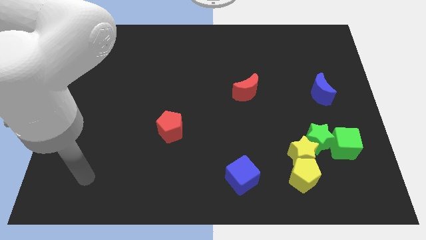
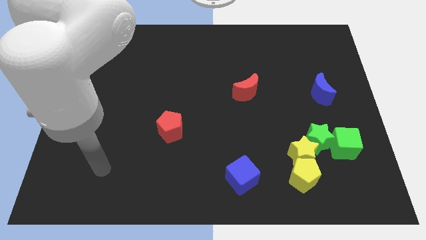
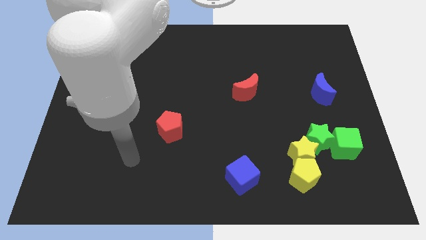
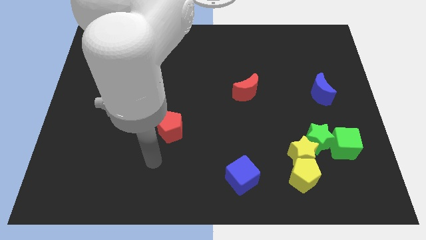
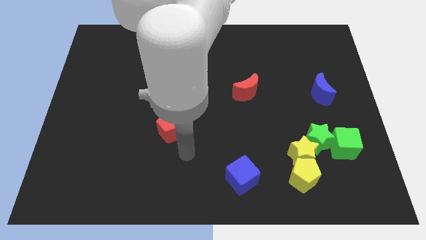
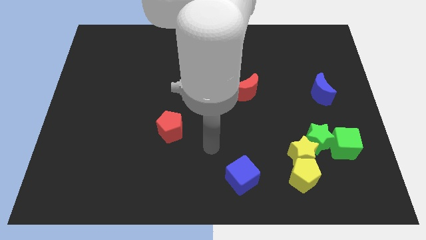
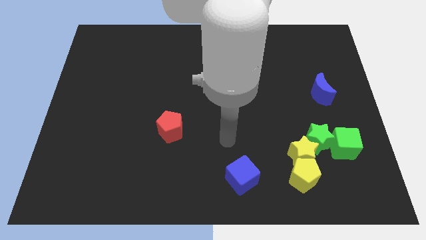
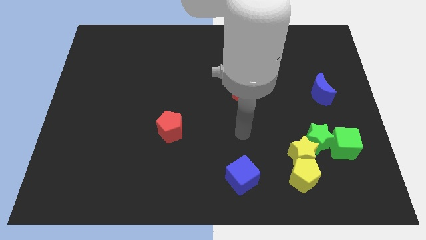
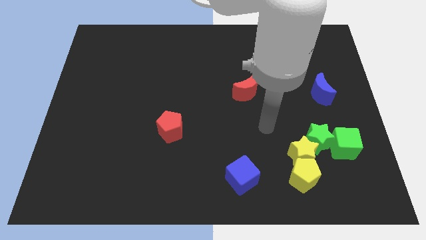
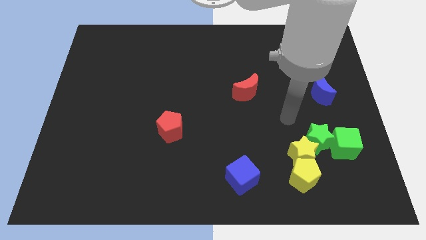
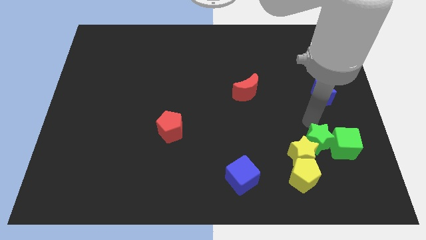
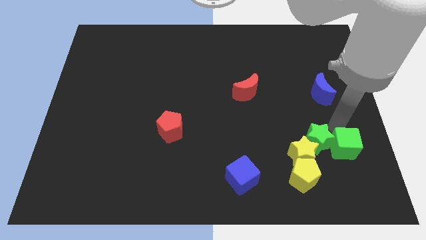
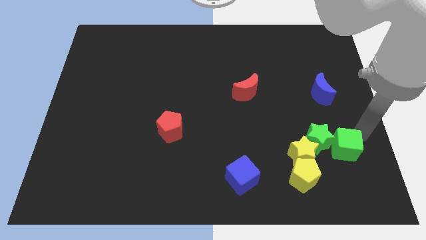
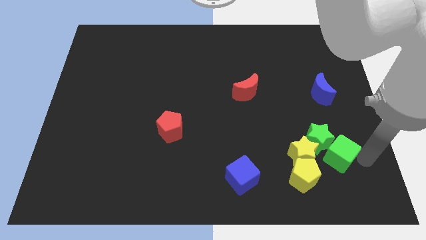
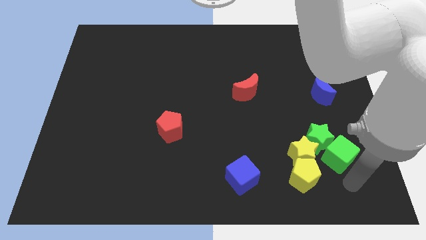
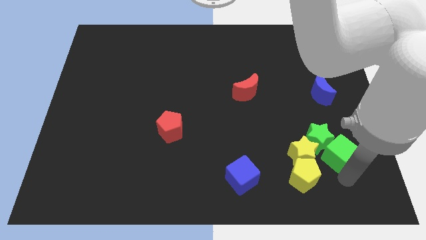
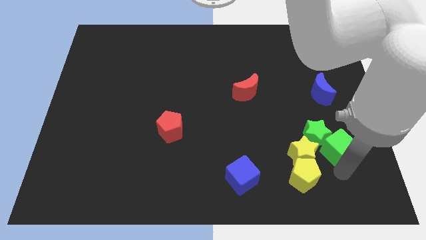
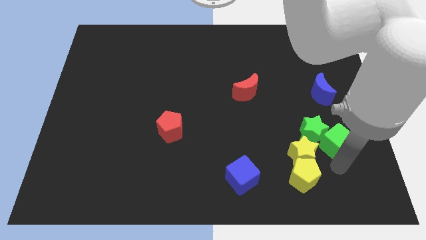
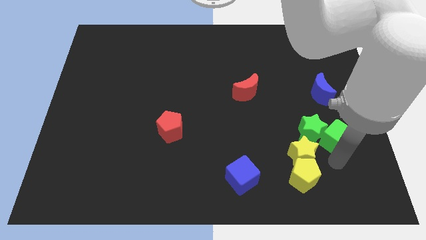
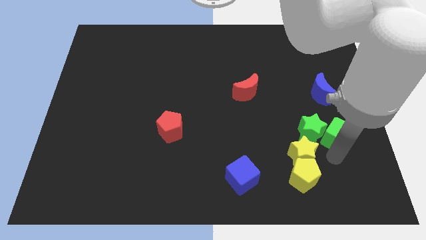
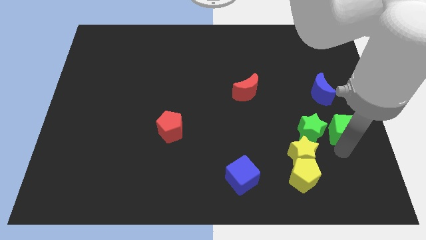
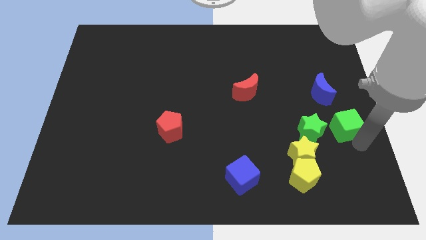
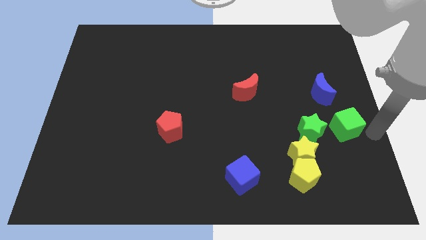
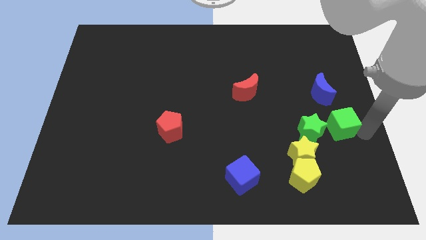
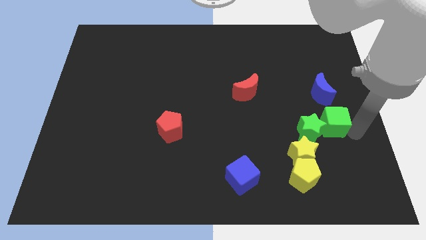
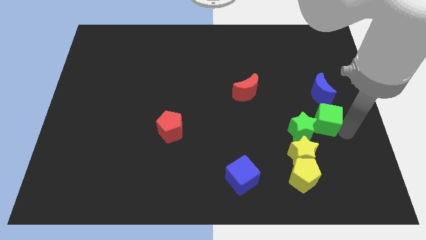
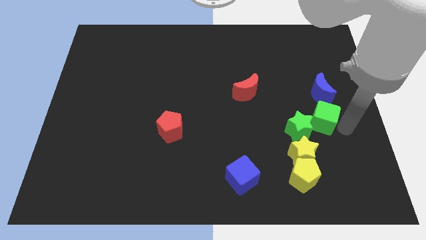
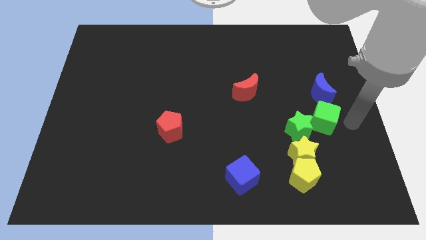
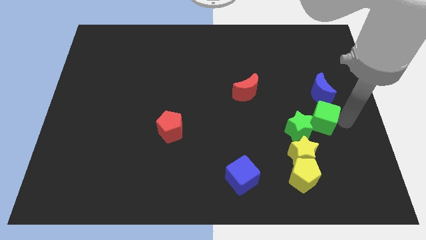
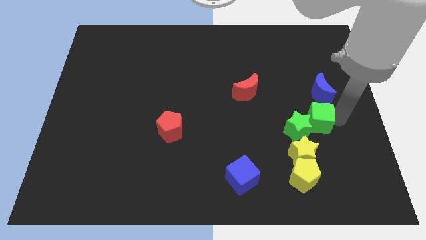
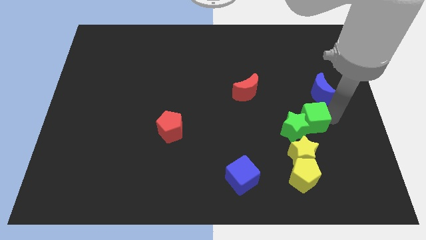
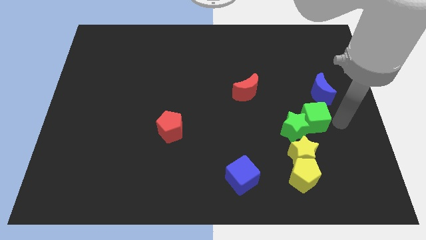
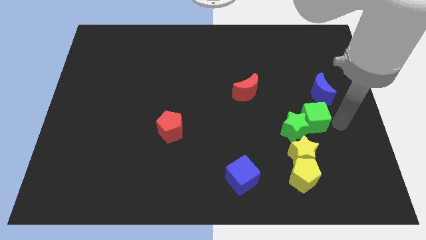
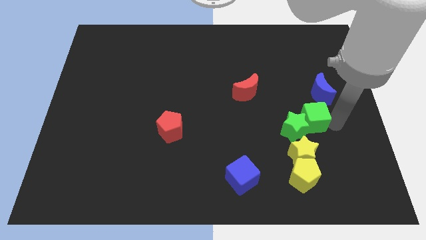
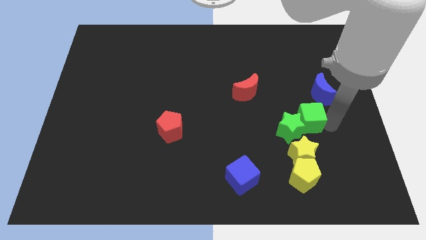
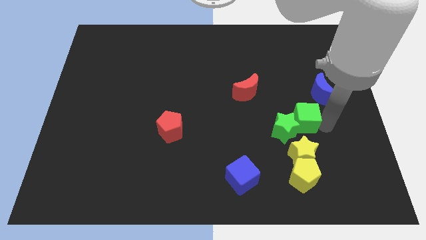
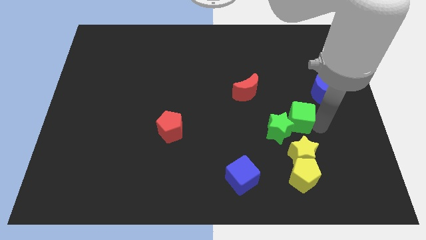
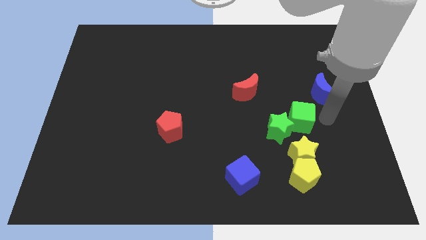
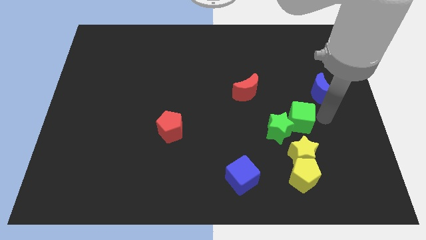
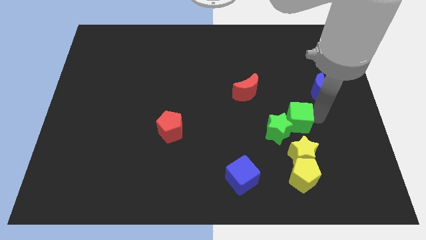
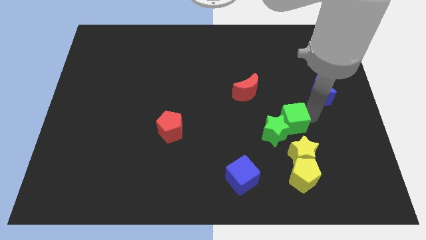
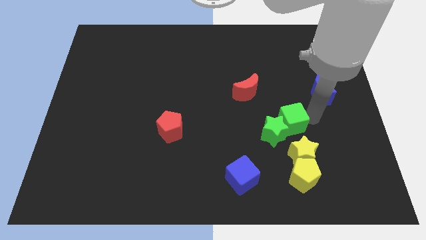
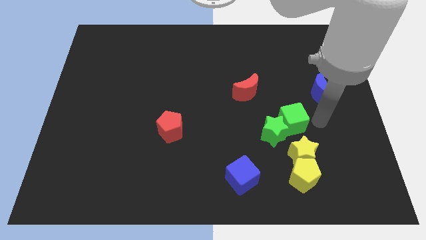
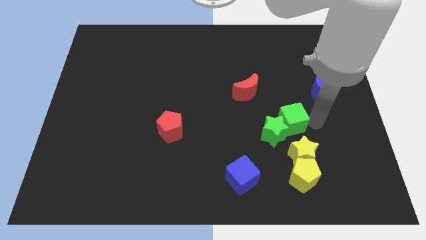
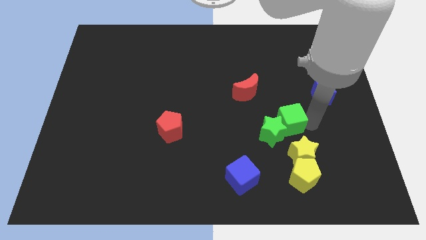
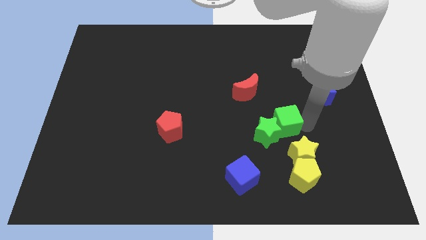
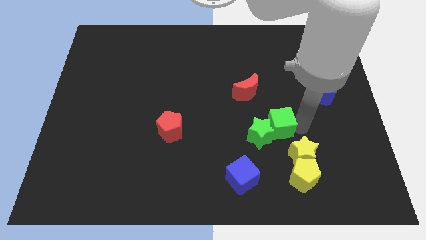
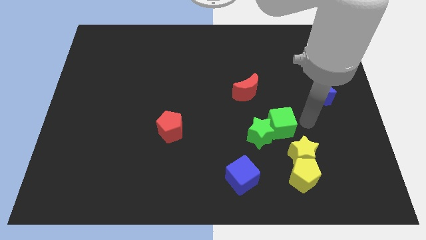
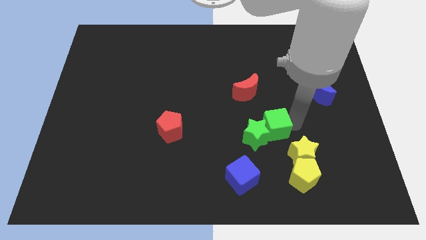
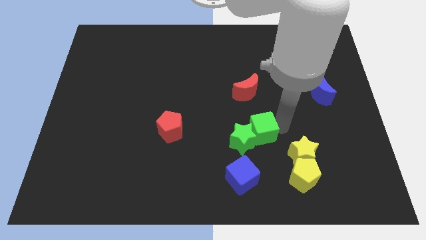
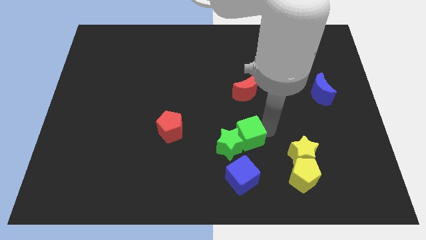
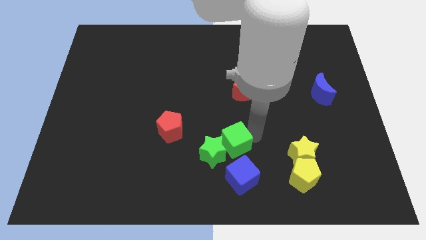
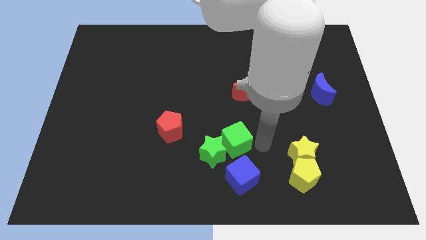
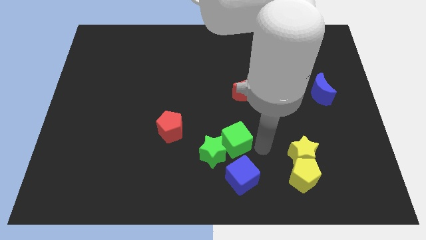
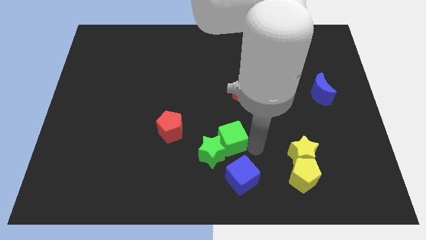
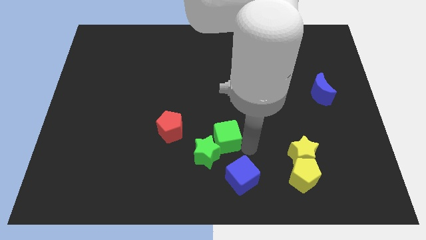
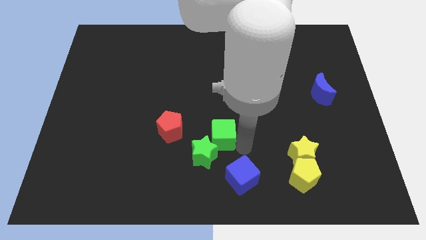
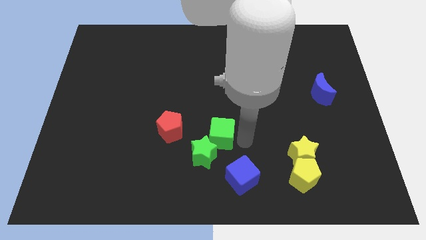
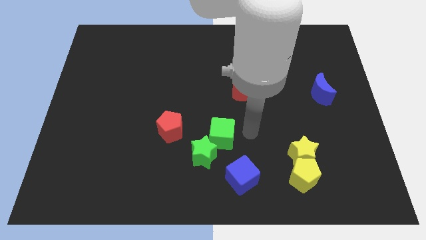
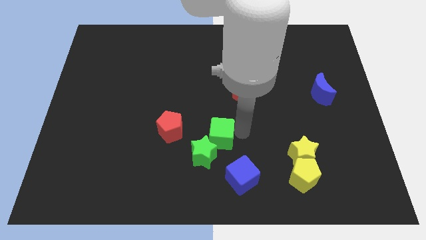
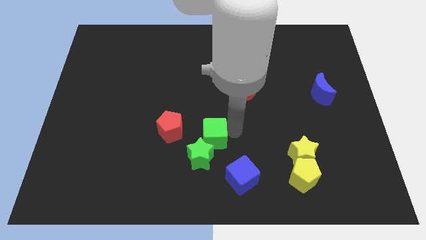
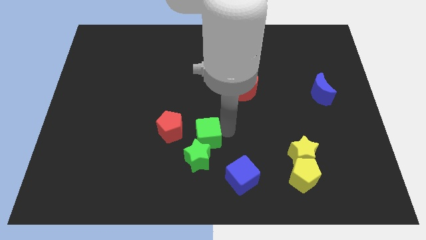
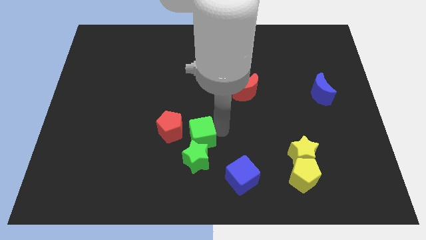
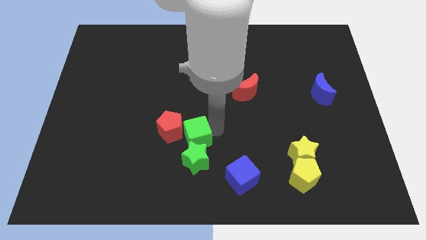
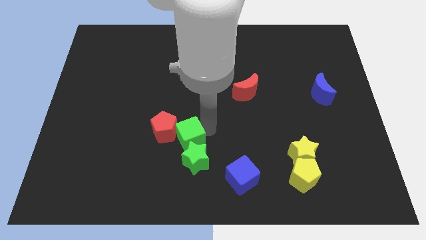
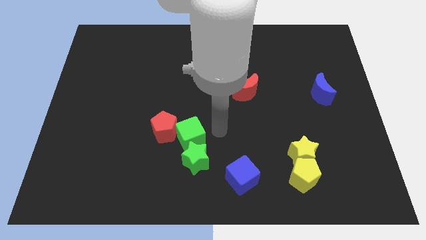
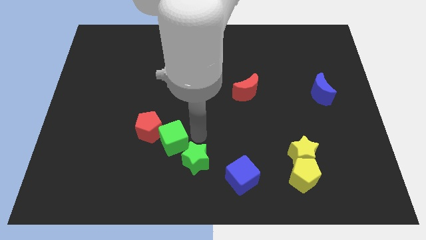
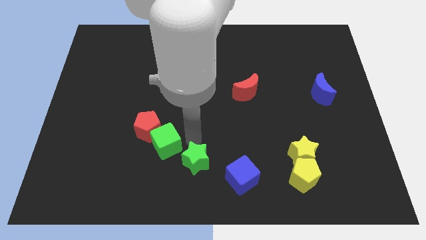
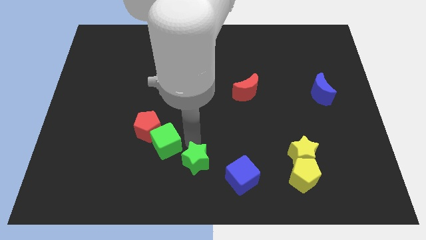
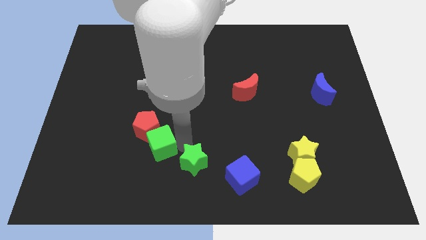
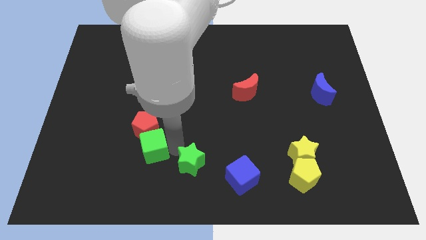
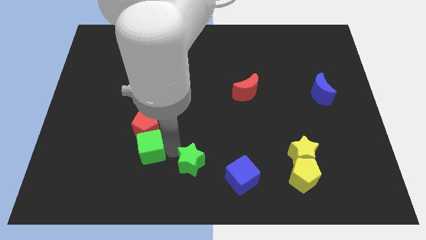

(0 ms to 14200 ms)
slide the green cube to the bottom left of the red pentagon

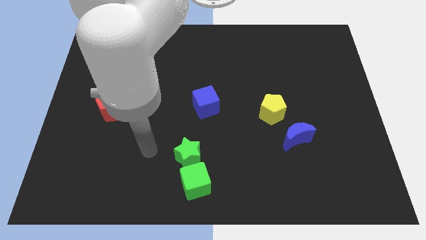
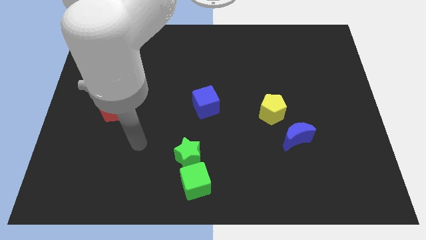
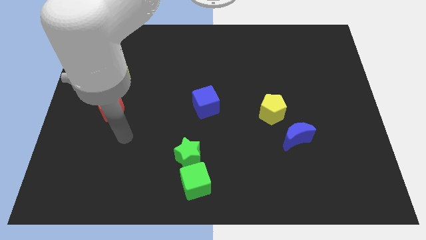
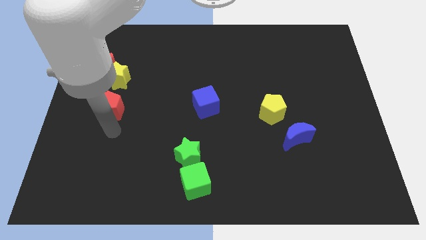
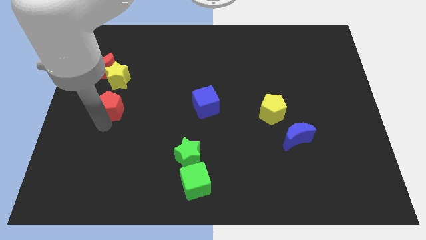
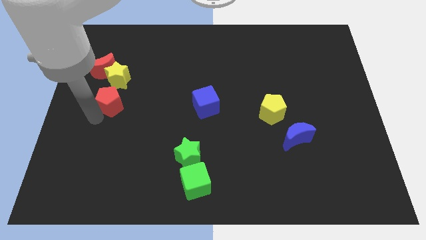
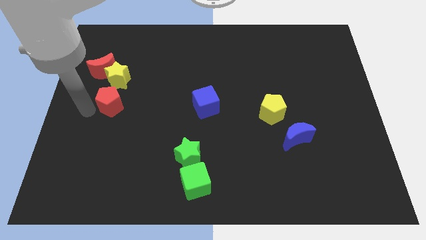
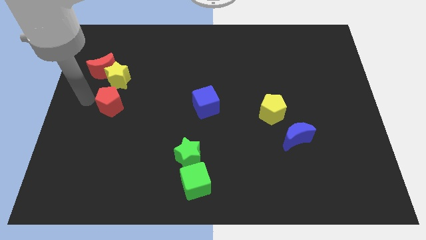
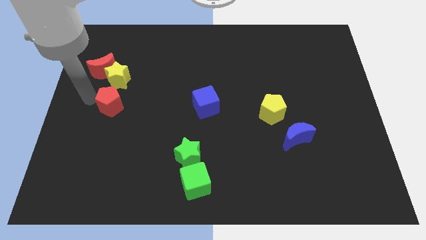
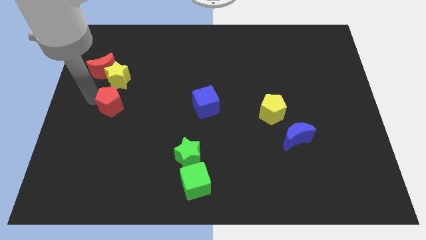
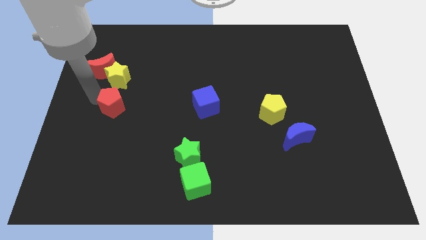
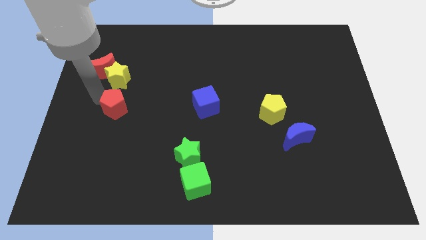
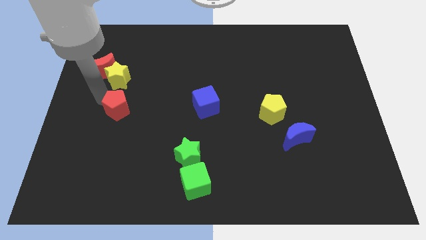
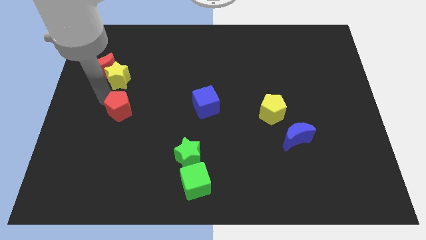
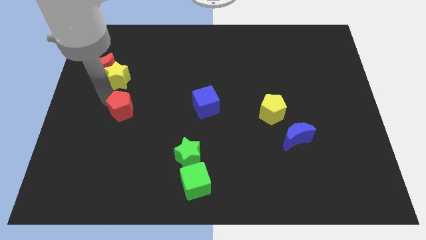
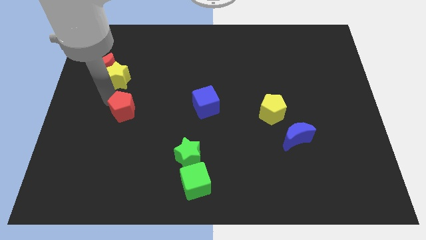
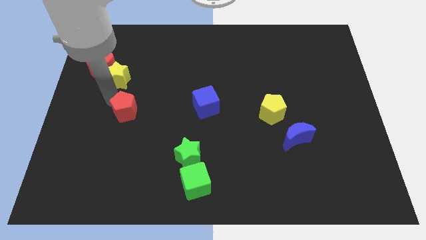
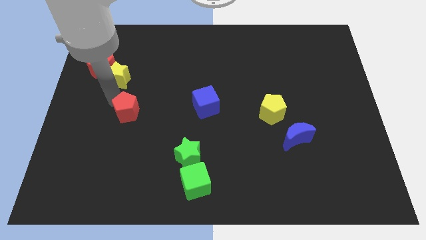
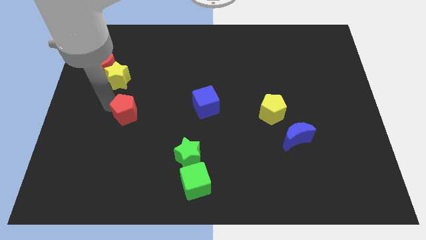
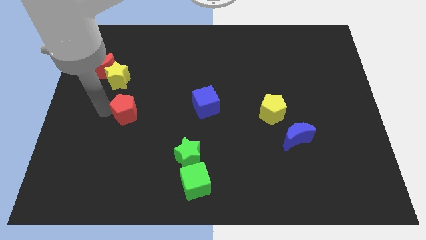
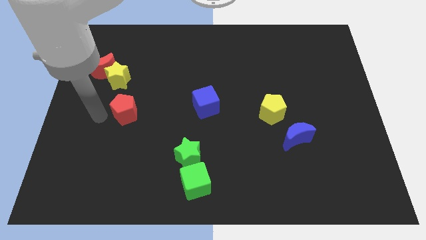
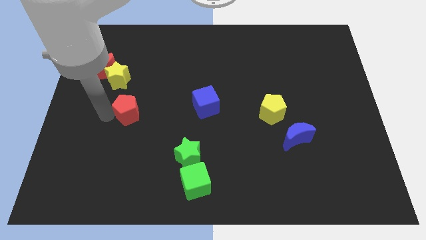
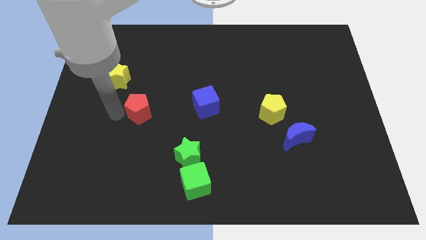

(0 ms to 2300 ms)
move the red pentagon just left of the blue cube
